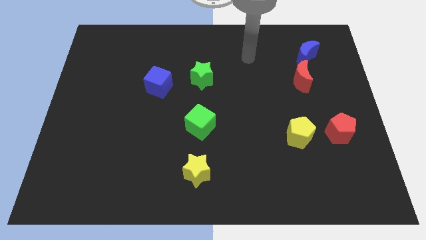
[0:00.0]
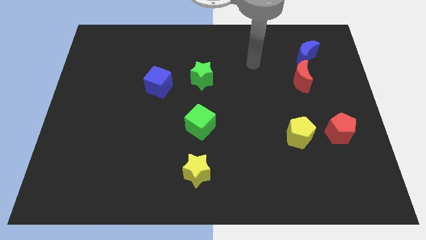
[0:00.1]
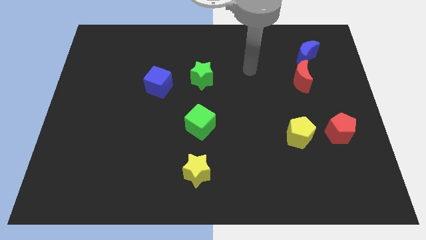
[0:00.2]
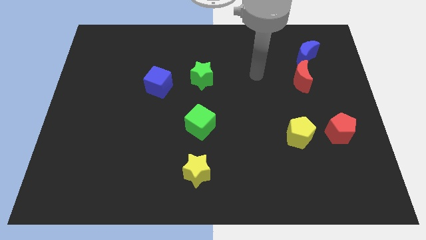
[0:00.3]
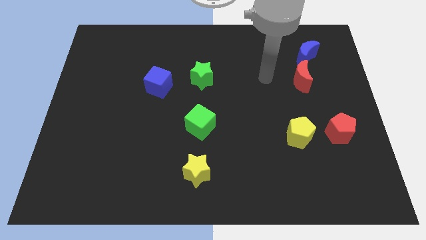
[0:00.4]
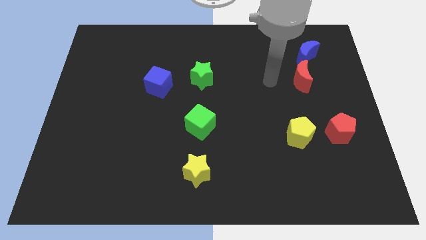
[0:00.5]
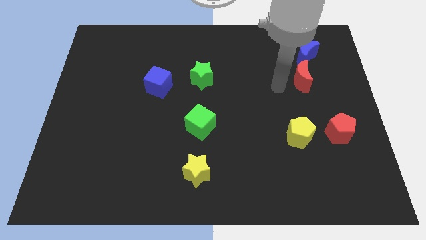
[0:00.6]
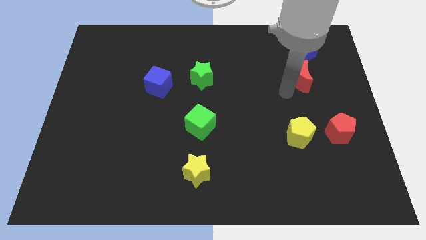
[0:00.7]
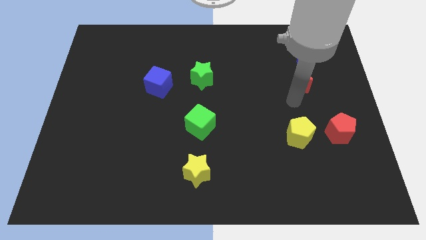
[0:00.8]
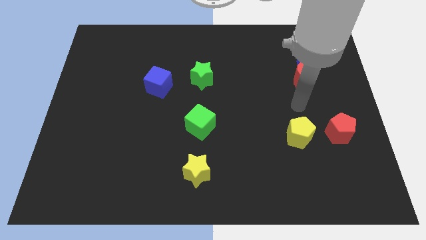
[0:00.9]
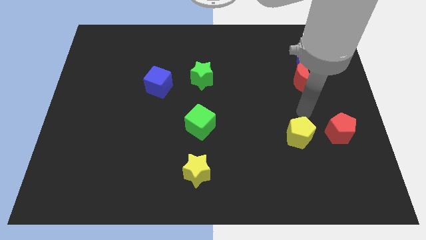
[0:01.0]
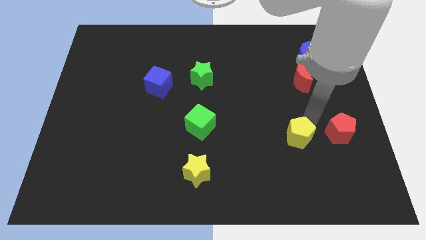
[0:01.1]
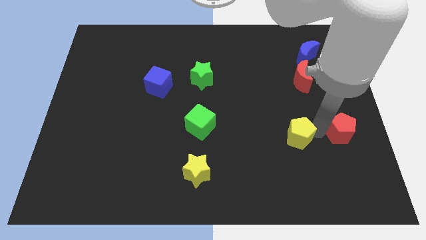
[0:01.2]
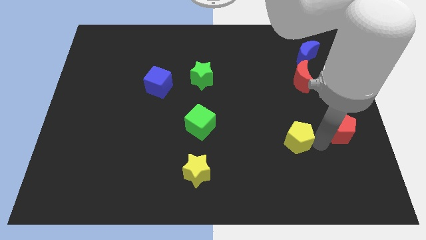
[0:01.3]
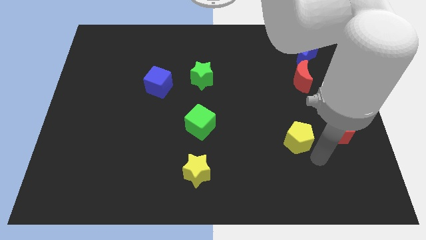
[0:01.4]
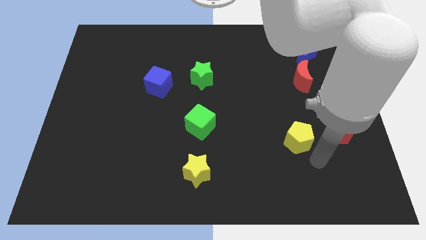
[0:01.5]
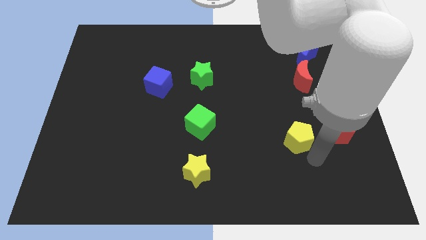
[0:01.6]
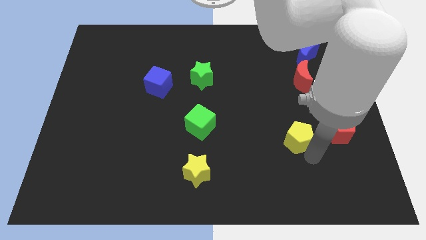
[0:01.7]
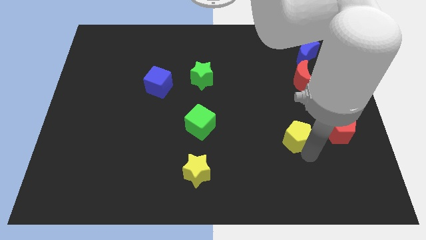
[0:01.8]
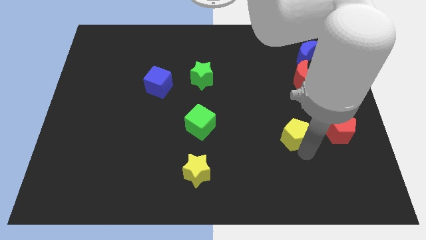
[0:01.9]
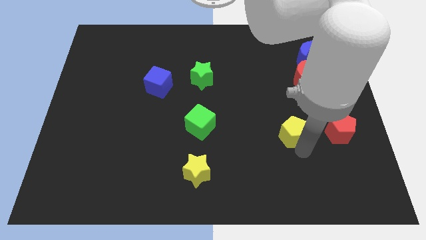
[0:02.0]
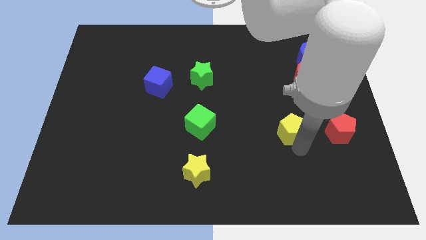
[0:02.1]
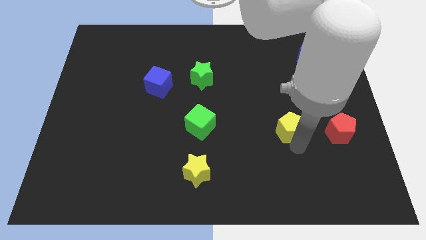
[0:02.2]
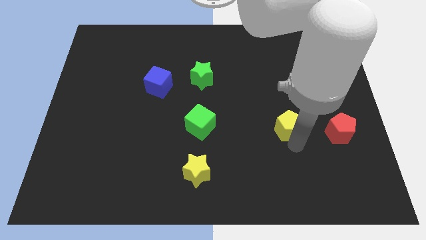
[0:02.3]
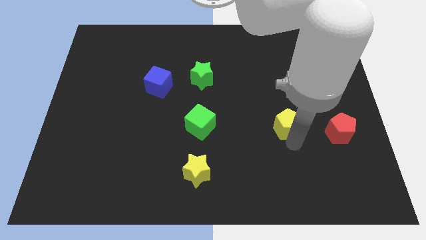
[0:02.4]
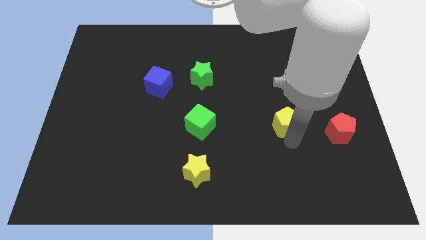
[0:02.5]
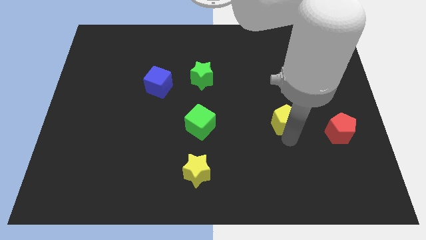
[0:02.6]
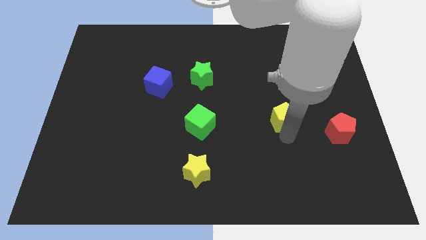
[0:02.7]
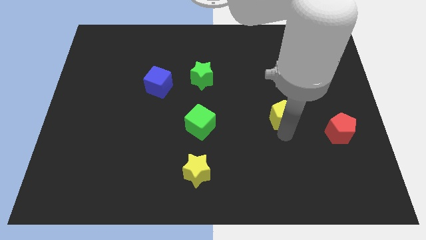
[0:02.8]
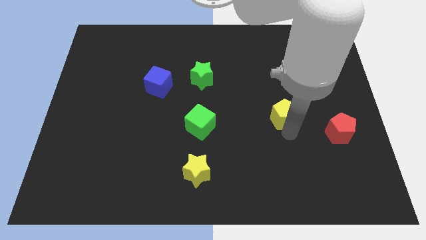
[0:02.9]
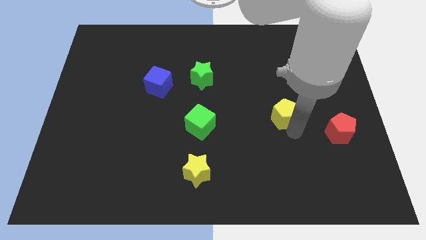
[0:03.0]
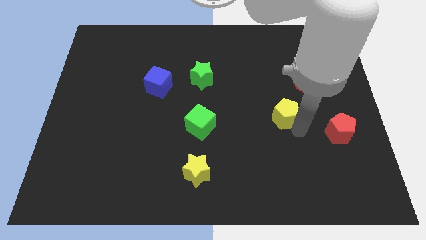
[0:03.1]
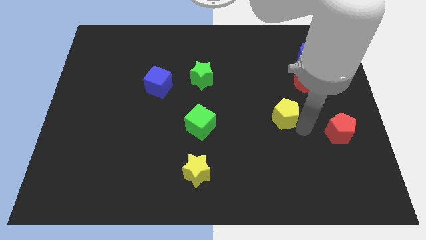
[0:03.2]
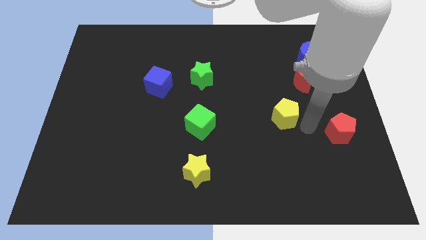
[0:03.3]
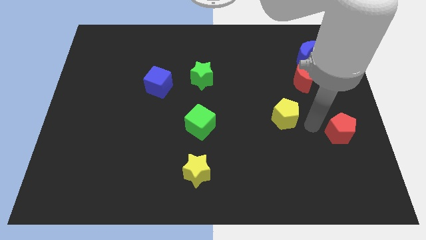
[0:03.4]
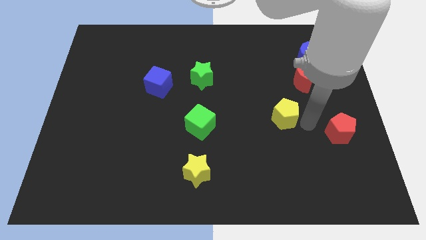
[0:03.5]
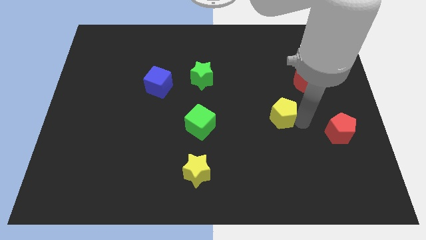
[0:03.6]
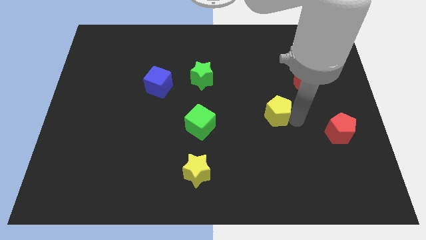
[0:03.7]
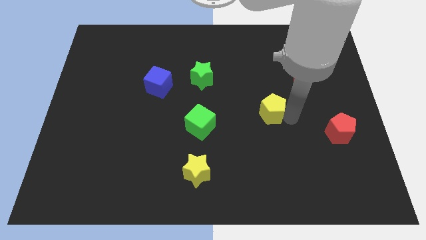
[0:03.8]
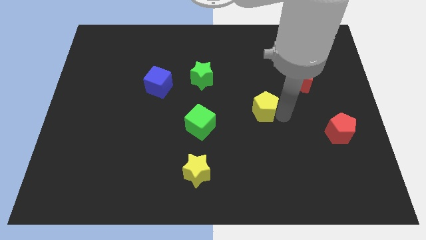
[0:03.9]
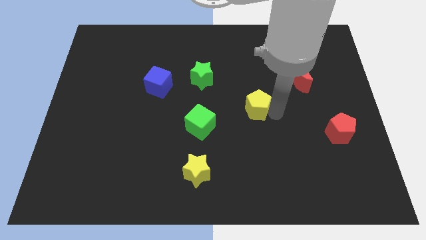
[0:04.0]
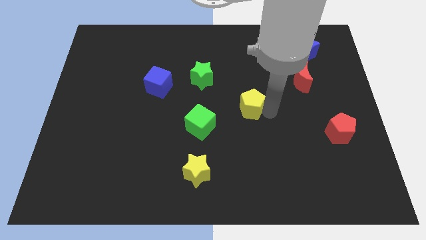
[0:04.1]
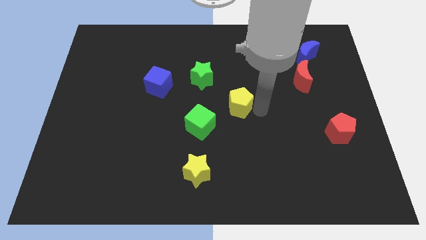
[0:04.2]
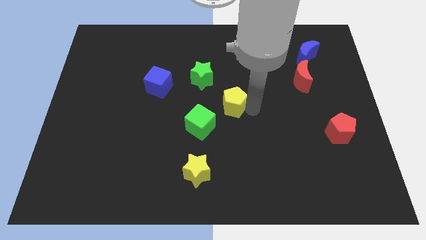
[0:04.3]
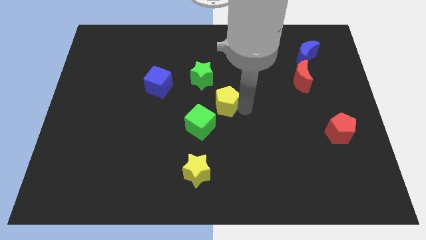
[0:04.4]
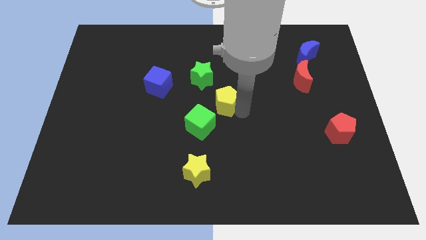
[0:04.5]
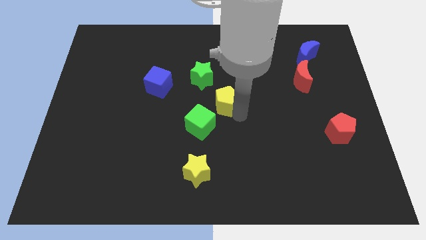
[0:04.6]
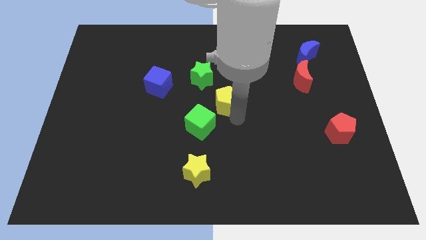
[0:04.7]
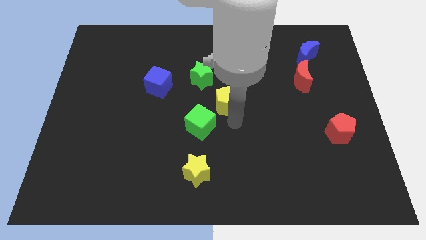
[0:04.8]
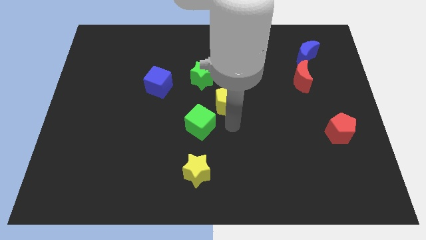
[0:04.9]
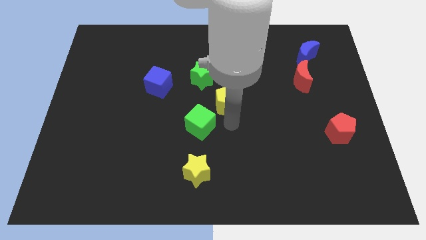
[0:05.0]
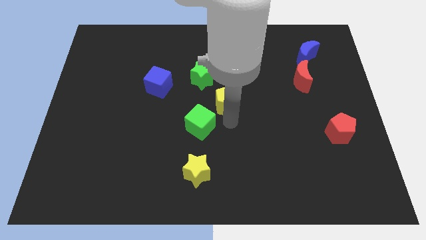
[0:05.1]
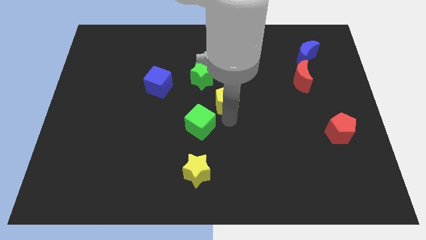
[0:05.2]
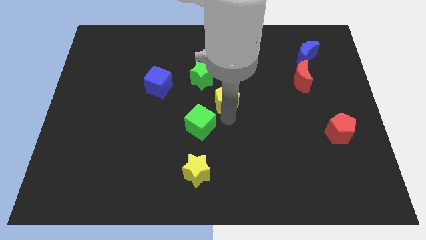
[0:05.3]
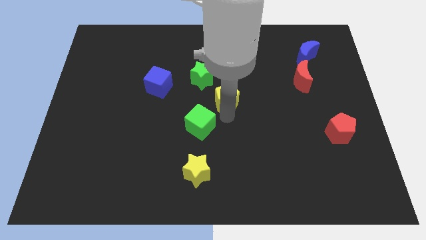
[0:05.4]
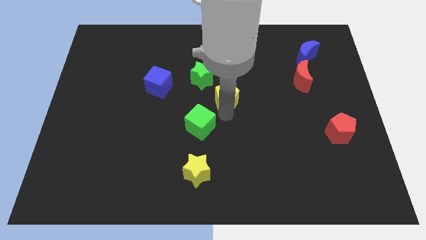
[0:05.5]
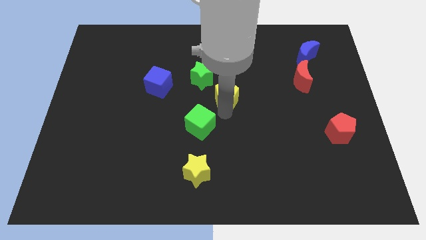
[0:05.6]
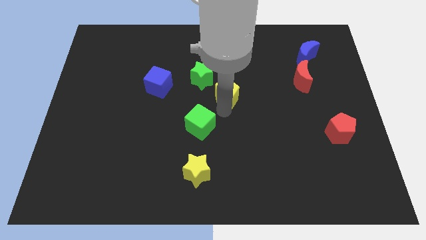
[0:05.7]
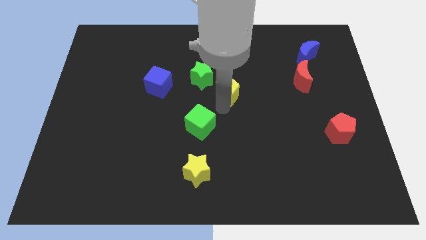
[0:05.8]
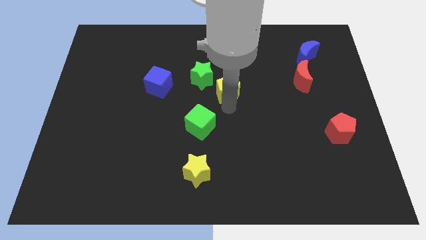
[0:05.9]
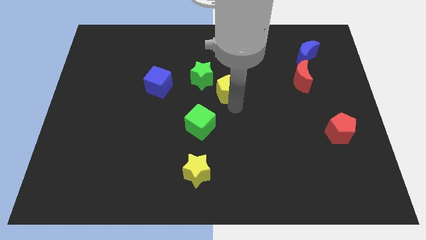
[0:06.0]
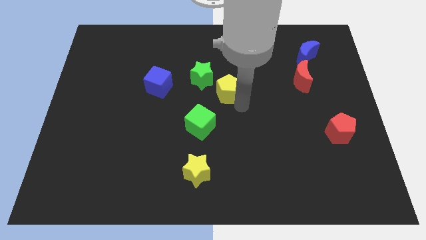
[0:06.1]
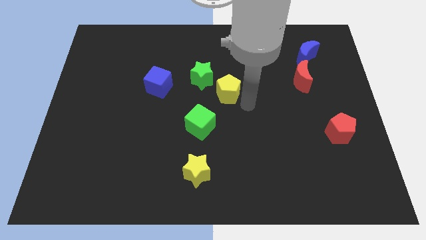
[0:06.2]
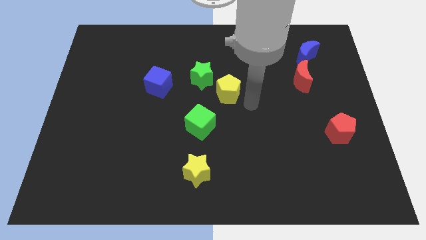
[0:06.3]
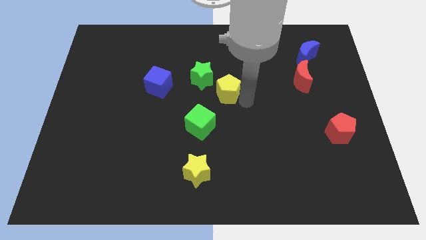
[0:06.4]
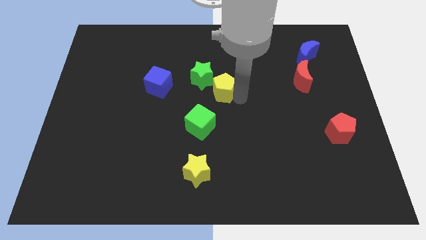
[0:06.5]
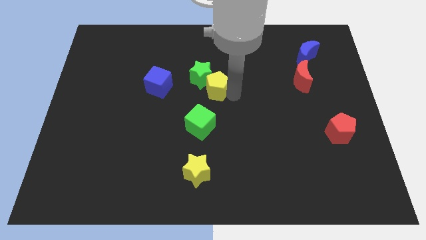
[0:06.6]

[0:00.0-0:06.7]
put the yellow pentagon next to the green star

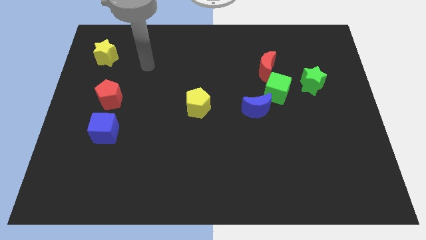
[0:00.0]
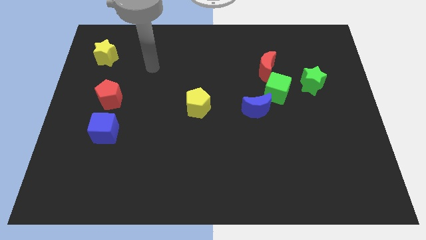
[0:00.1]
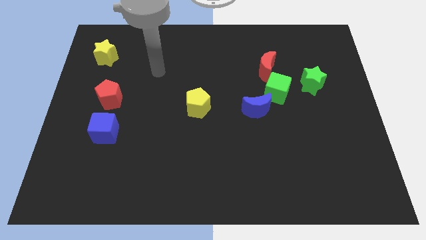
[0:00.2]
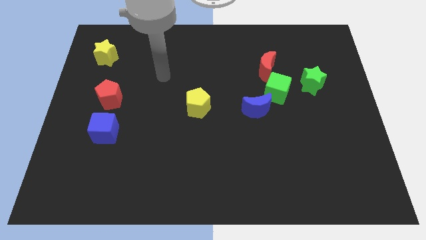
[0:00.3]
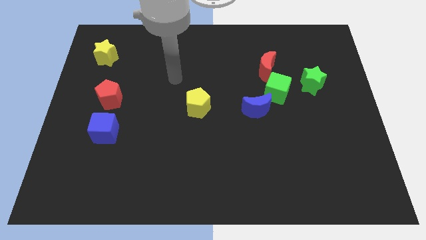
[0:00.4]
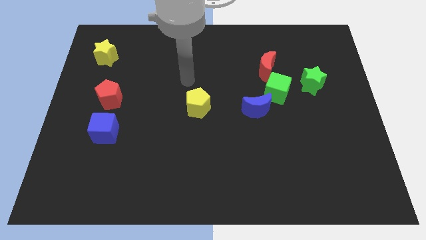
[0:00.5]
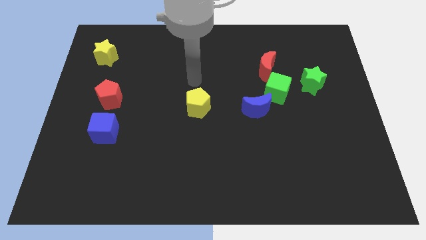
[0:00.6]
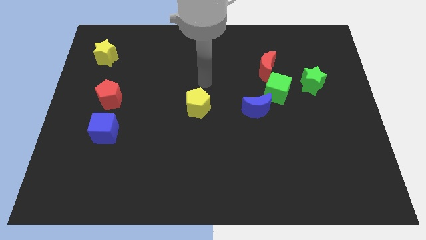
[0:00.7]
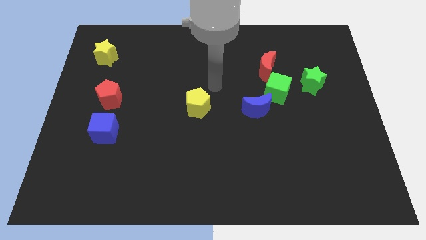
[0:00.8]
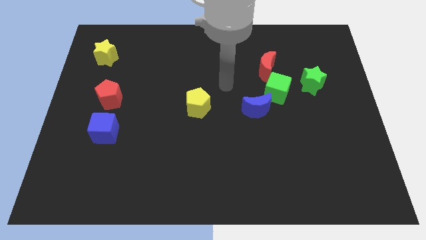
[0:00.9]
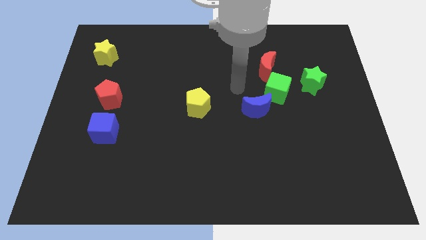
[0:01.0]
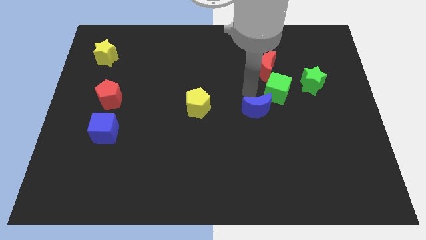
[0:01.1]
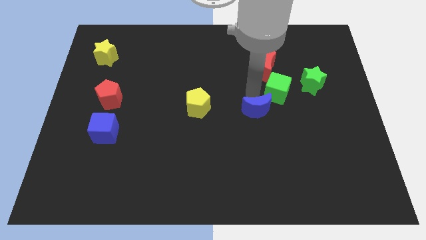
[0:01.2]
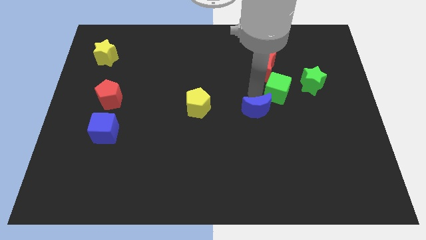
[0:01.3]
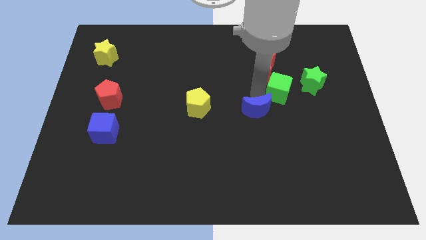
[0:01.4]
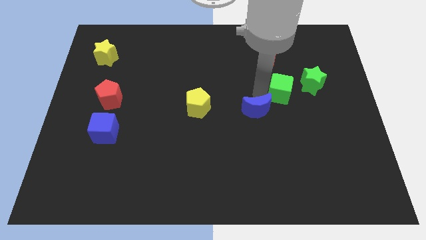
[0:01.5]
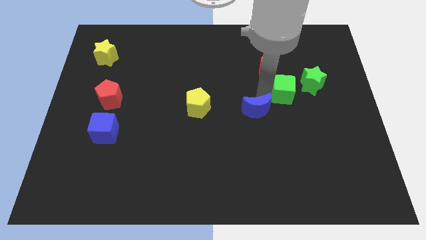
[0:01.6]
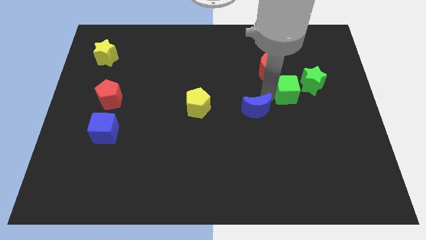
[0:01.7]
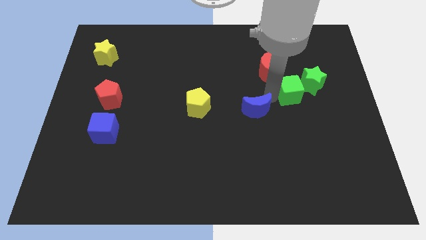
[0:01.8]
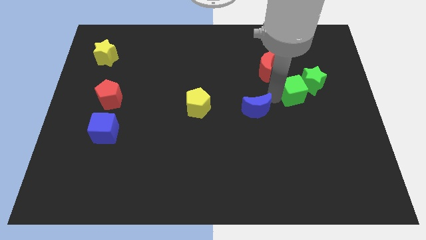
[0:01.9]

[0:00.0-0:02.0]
push the green cube to the green star
